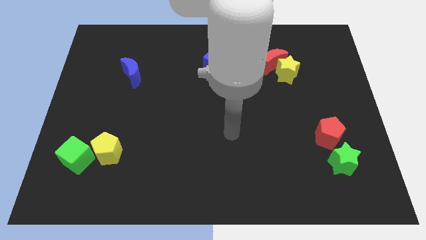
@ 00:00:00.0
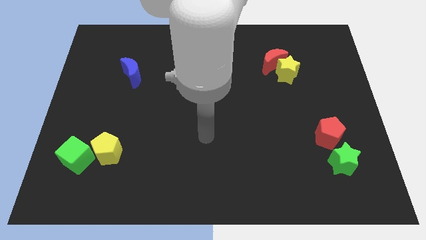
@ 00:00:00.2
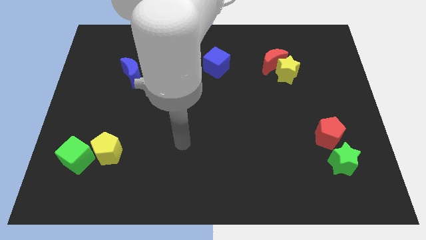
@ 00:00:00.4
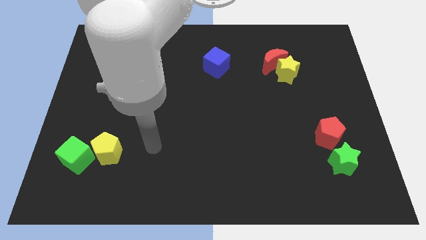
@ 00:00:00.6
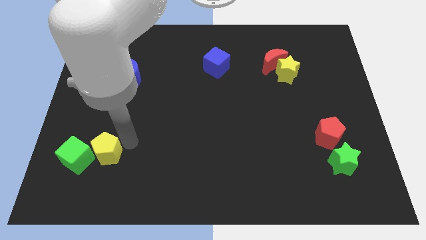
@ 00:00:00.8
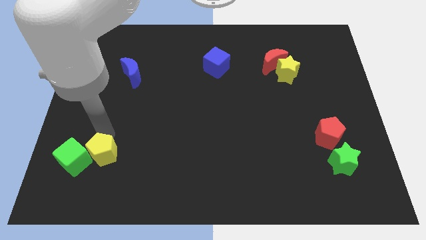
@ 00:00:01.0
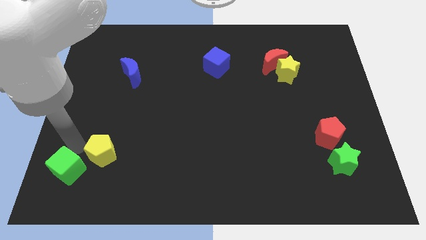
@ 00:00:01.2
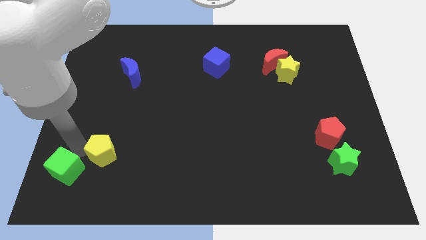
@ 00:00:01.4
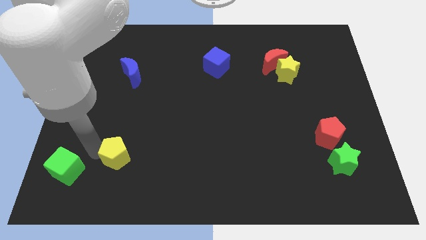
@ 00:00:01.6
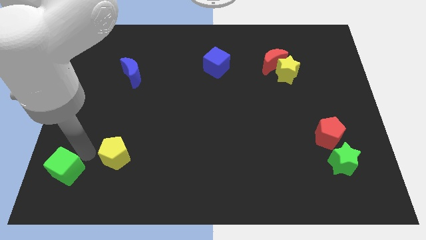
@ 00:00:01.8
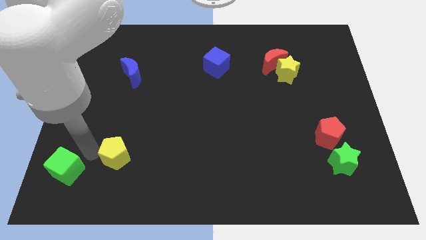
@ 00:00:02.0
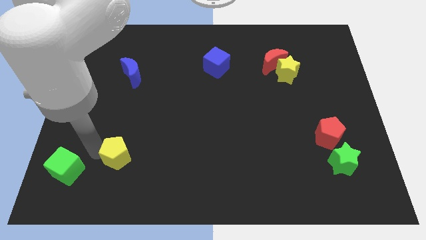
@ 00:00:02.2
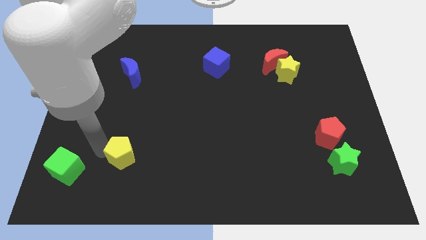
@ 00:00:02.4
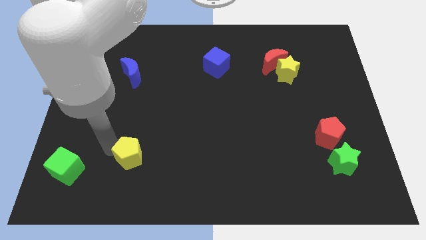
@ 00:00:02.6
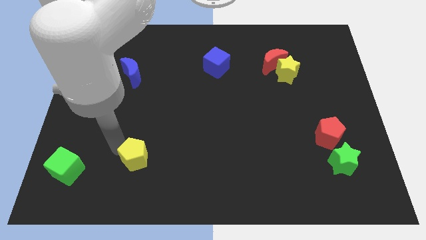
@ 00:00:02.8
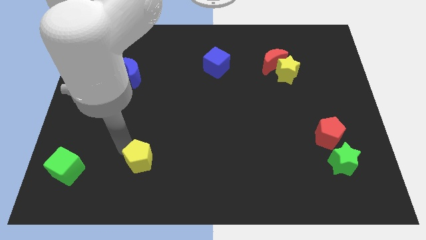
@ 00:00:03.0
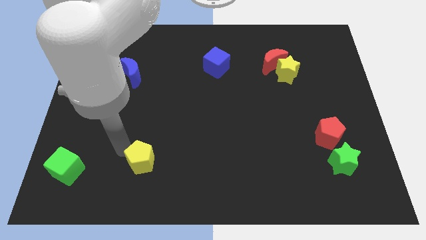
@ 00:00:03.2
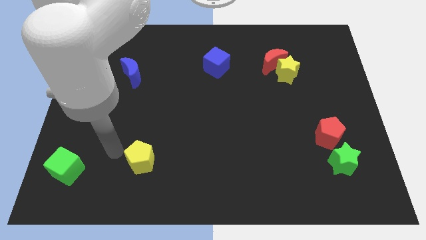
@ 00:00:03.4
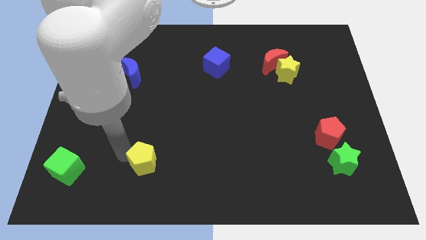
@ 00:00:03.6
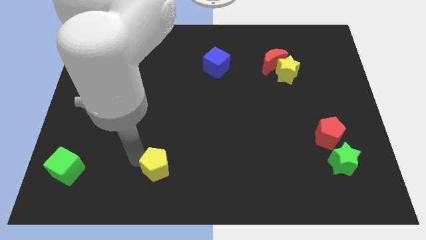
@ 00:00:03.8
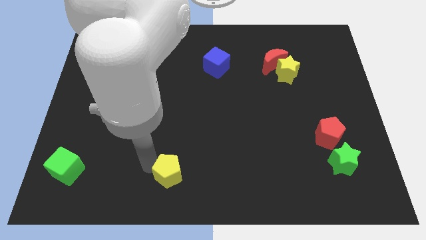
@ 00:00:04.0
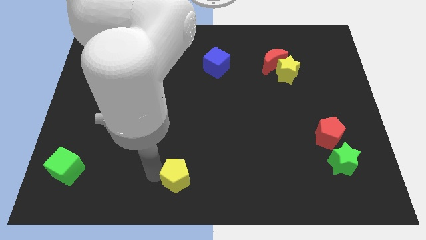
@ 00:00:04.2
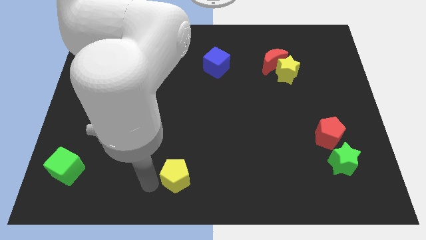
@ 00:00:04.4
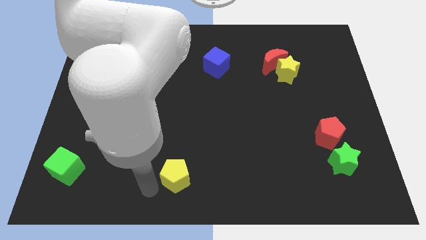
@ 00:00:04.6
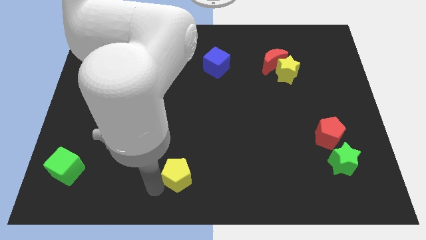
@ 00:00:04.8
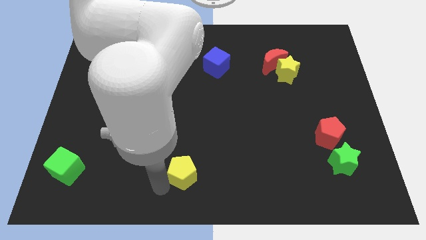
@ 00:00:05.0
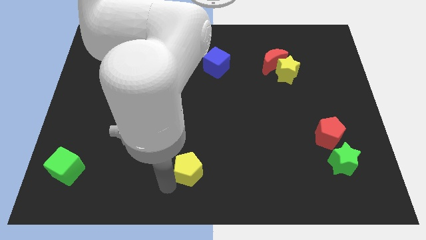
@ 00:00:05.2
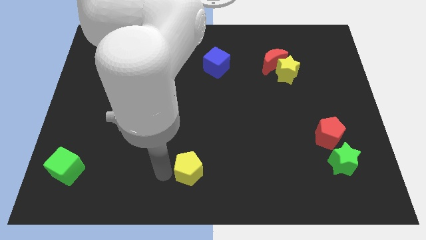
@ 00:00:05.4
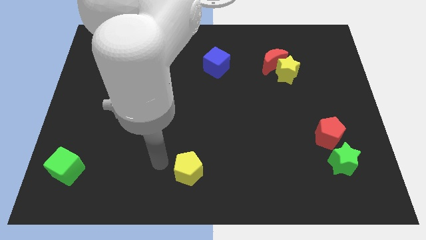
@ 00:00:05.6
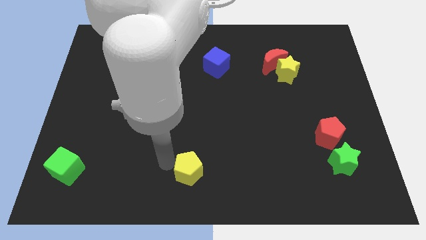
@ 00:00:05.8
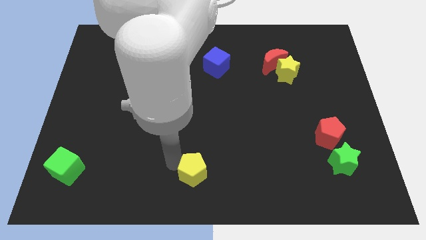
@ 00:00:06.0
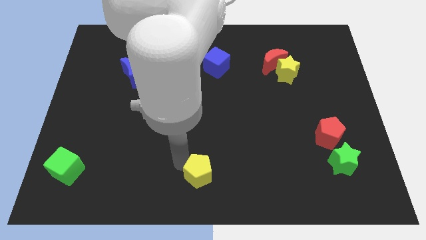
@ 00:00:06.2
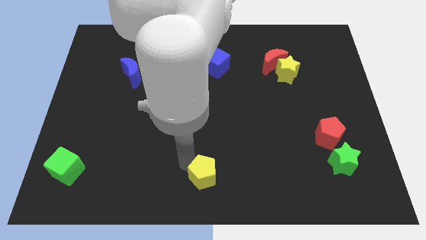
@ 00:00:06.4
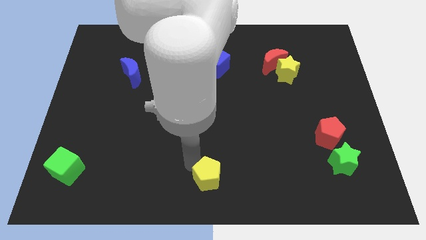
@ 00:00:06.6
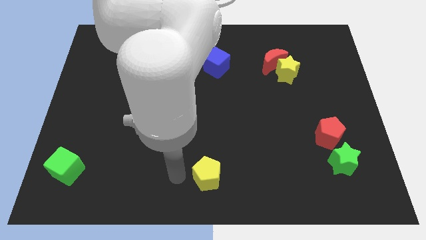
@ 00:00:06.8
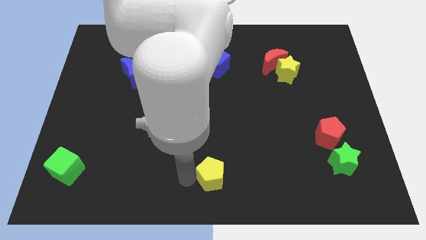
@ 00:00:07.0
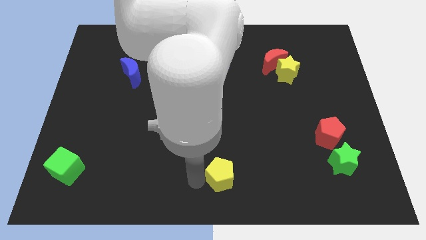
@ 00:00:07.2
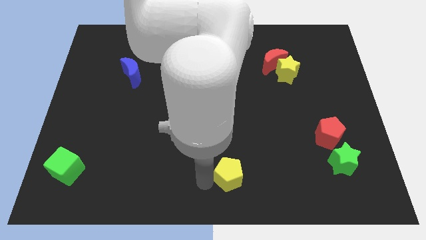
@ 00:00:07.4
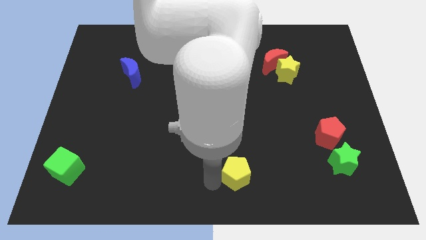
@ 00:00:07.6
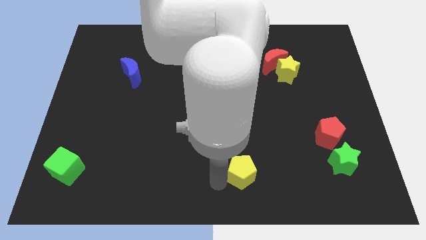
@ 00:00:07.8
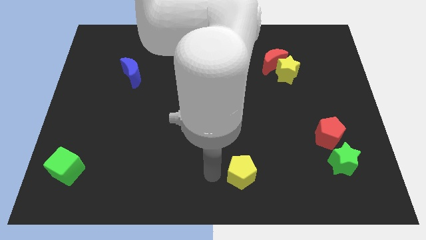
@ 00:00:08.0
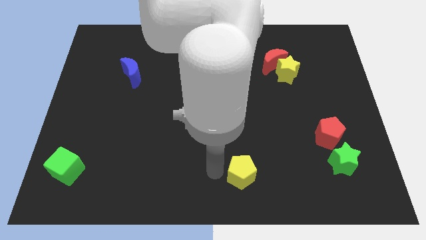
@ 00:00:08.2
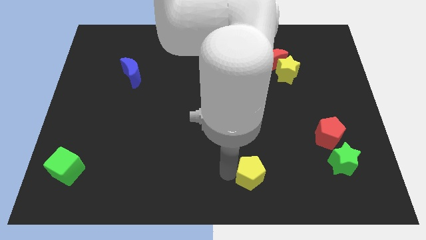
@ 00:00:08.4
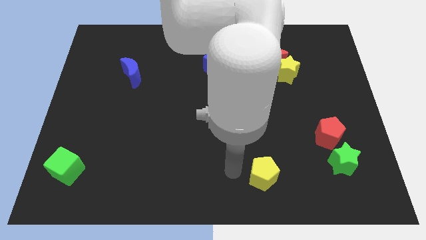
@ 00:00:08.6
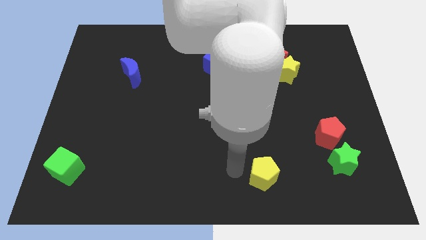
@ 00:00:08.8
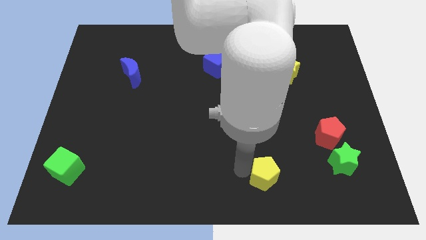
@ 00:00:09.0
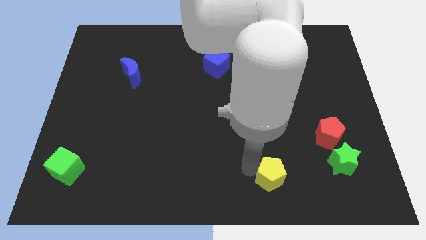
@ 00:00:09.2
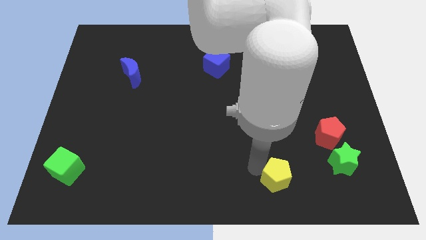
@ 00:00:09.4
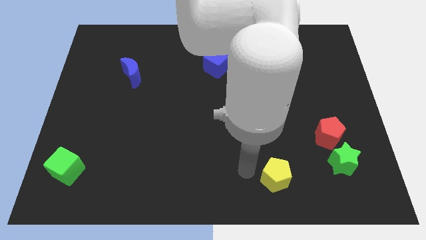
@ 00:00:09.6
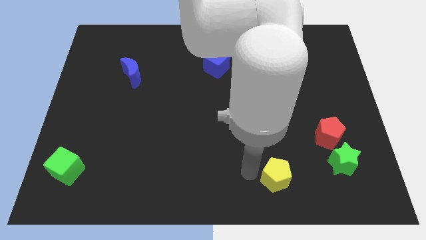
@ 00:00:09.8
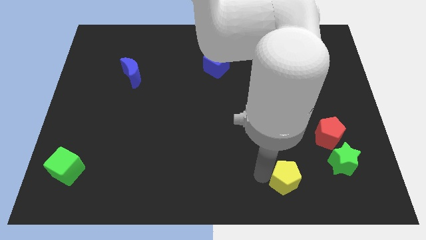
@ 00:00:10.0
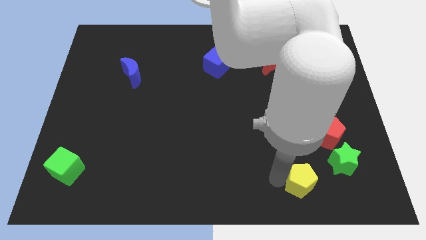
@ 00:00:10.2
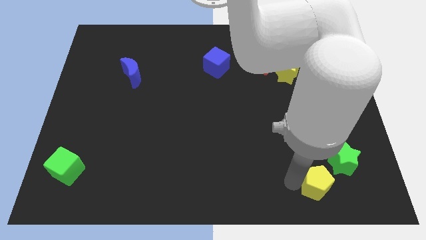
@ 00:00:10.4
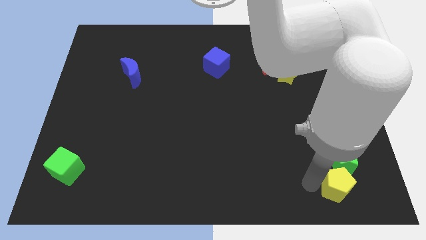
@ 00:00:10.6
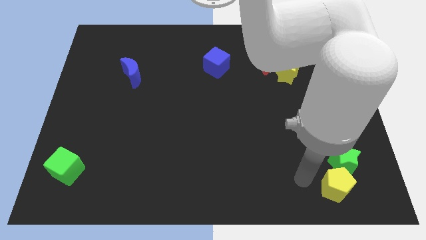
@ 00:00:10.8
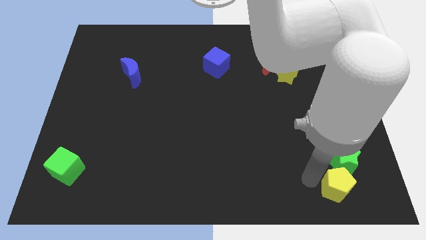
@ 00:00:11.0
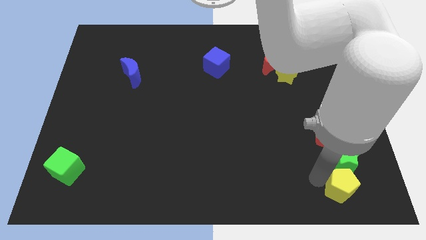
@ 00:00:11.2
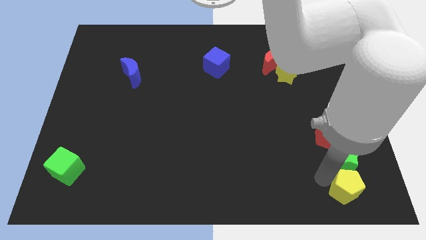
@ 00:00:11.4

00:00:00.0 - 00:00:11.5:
push the yellow pentagon to the bottom right corner

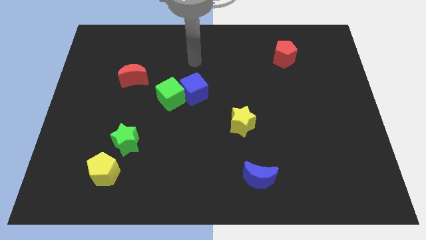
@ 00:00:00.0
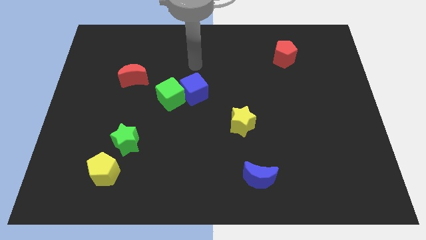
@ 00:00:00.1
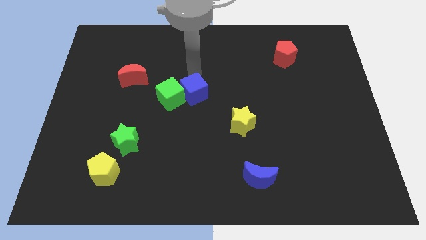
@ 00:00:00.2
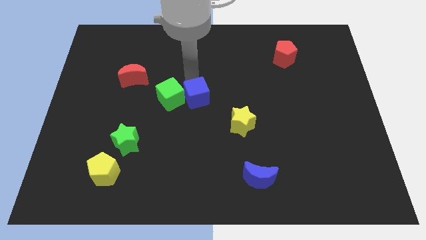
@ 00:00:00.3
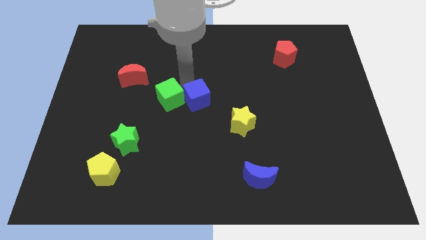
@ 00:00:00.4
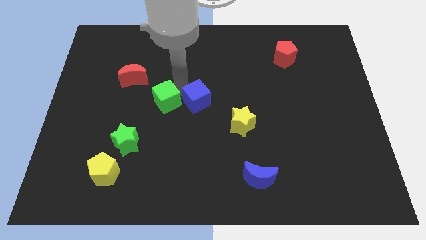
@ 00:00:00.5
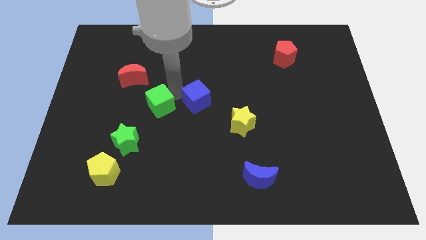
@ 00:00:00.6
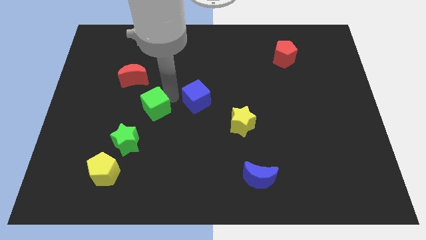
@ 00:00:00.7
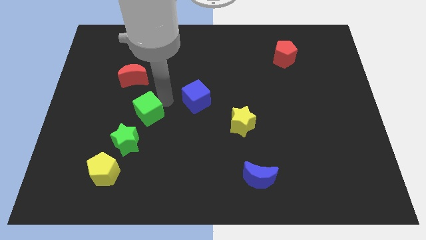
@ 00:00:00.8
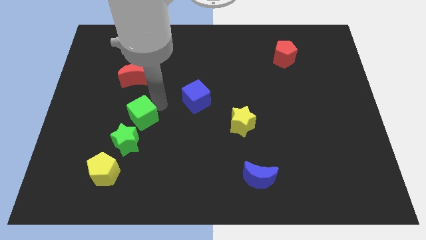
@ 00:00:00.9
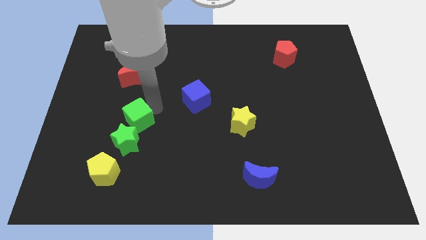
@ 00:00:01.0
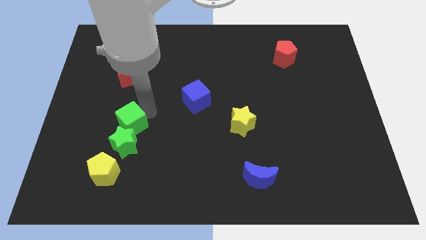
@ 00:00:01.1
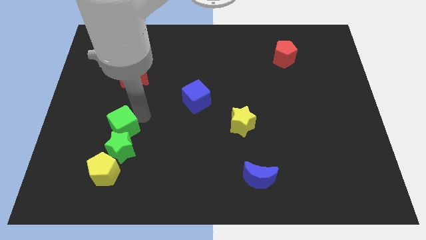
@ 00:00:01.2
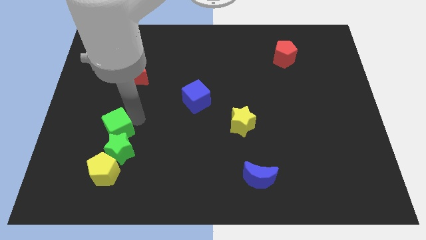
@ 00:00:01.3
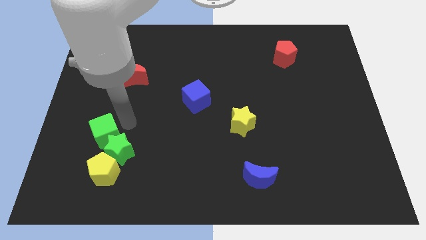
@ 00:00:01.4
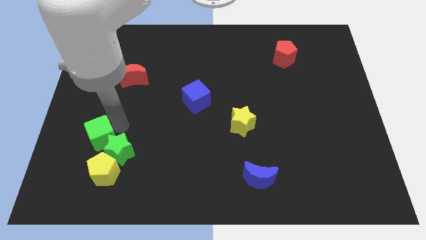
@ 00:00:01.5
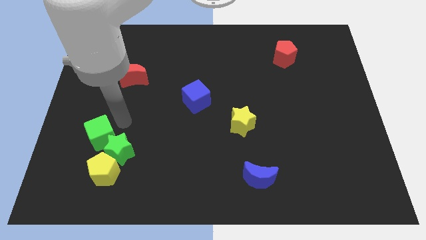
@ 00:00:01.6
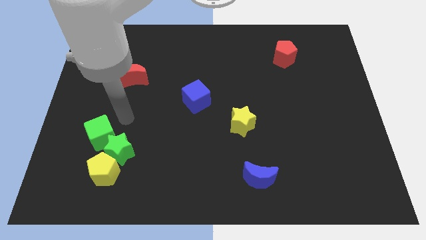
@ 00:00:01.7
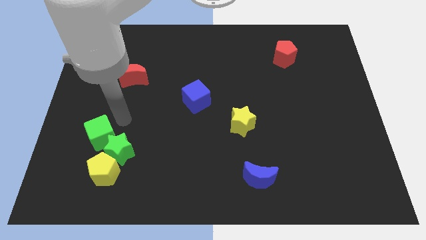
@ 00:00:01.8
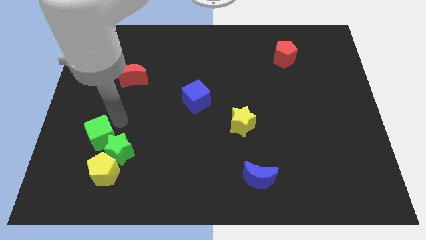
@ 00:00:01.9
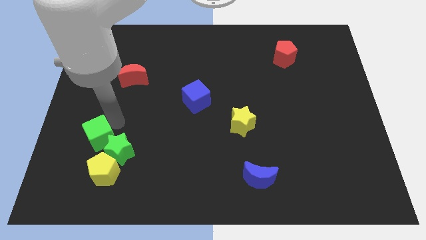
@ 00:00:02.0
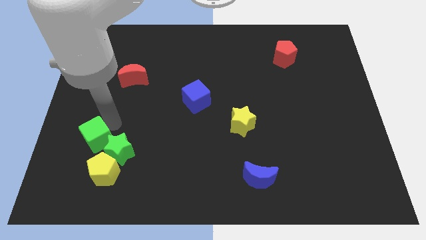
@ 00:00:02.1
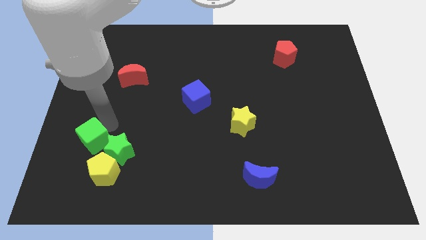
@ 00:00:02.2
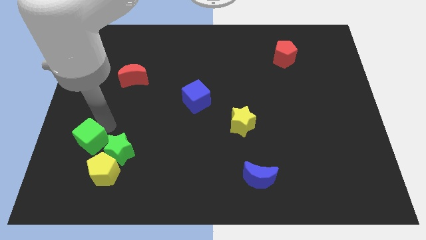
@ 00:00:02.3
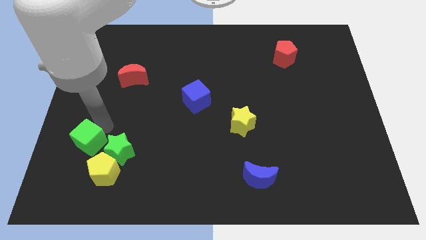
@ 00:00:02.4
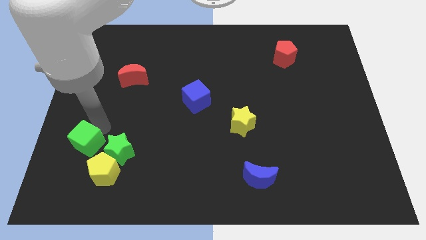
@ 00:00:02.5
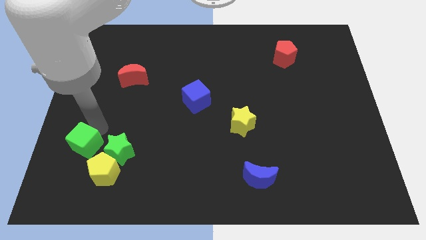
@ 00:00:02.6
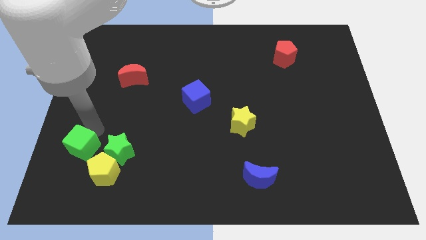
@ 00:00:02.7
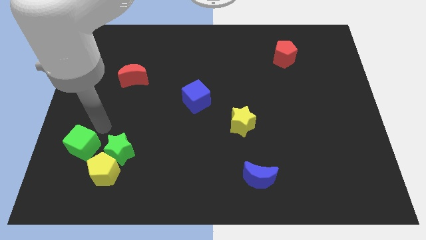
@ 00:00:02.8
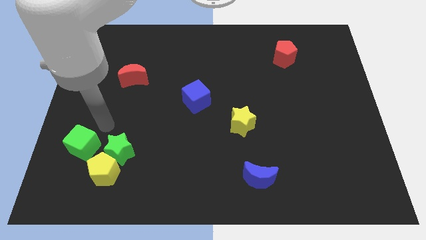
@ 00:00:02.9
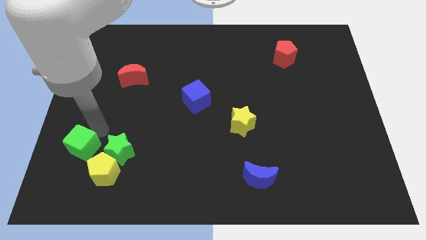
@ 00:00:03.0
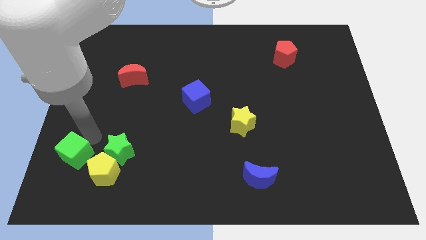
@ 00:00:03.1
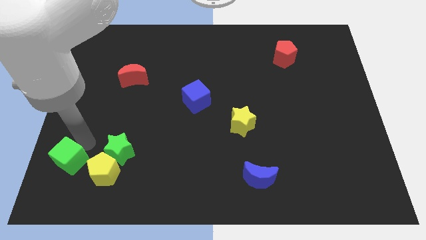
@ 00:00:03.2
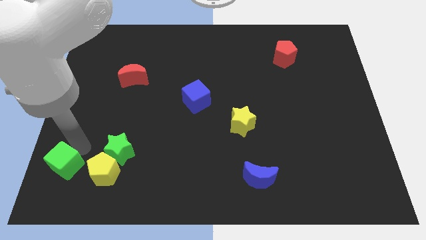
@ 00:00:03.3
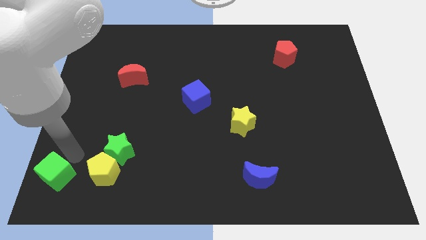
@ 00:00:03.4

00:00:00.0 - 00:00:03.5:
move the green cube to the lower left corner
